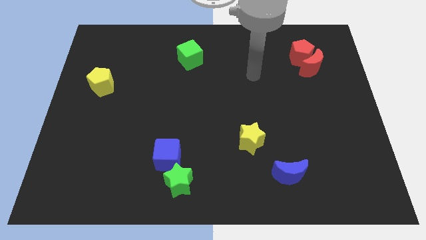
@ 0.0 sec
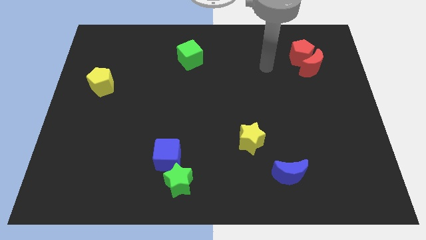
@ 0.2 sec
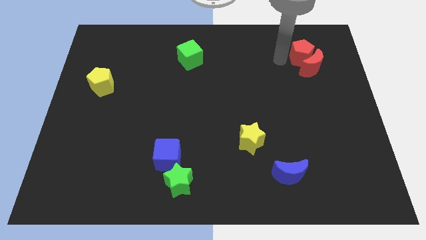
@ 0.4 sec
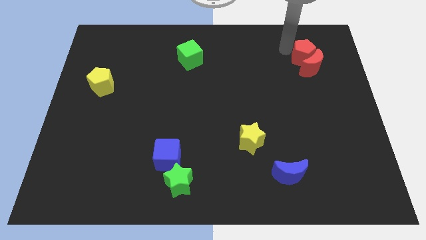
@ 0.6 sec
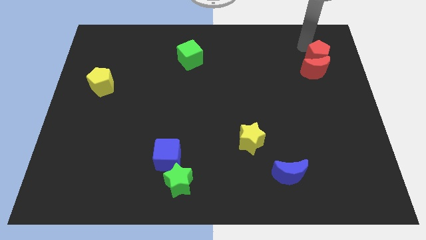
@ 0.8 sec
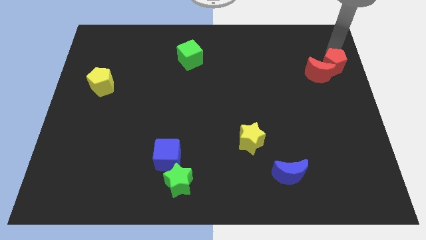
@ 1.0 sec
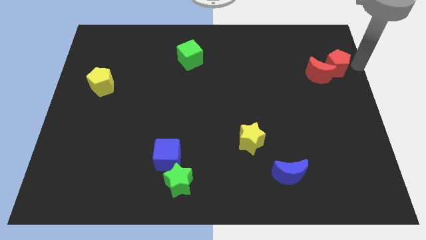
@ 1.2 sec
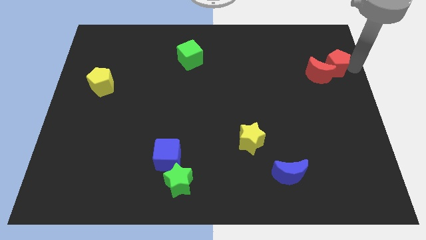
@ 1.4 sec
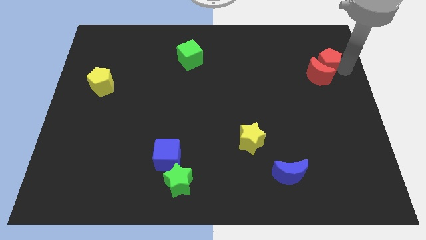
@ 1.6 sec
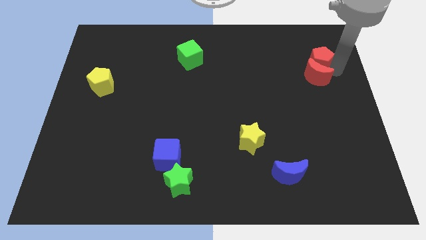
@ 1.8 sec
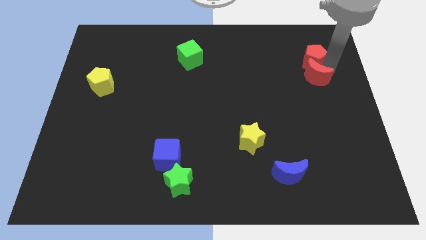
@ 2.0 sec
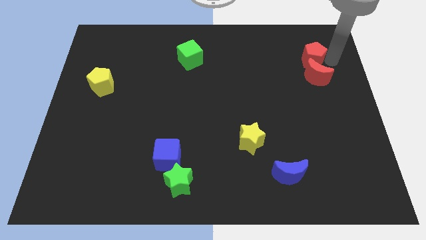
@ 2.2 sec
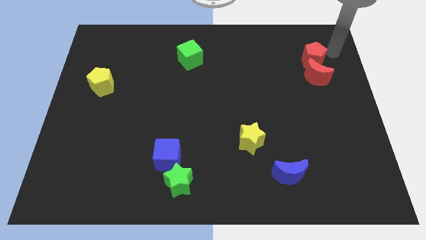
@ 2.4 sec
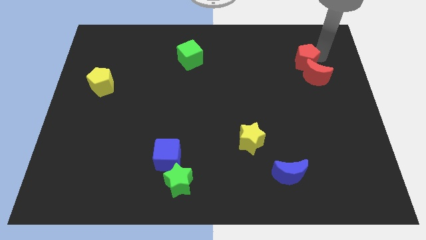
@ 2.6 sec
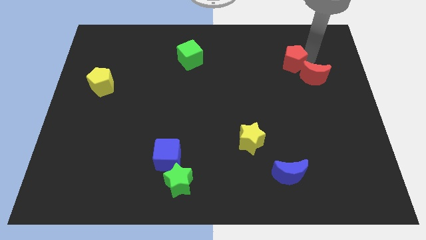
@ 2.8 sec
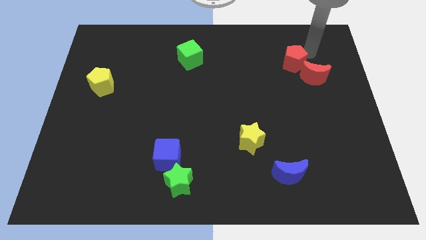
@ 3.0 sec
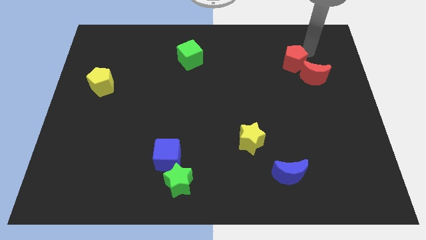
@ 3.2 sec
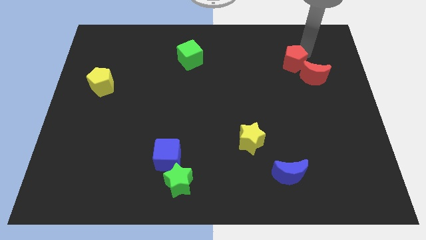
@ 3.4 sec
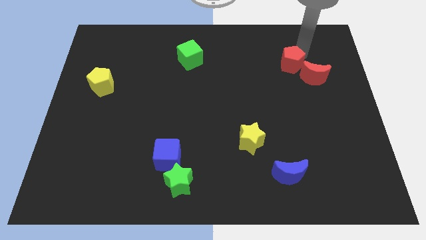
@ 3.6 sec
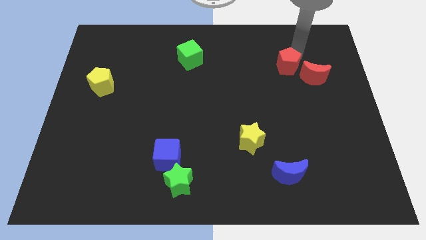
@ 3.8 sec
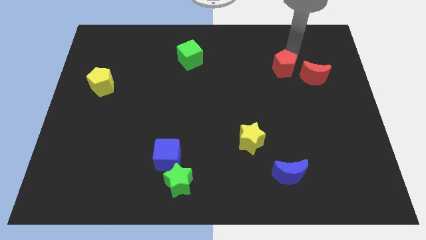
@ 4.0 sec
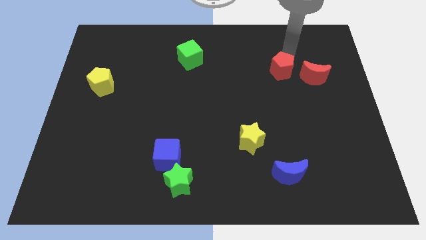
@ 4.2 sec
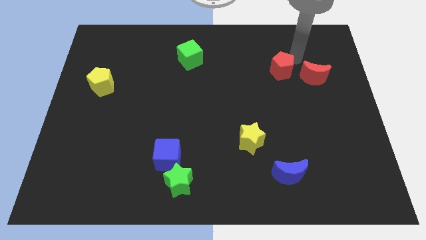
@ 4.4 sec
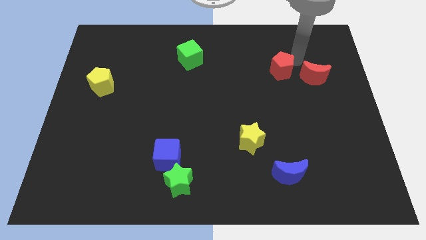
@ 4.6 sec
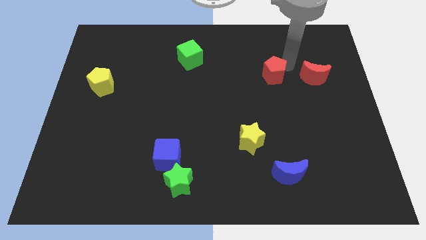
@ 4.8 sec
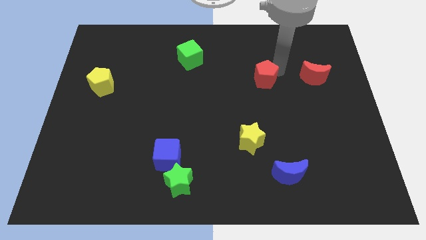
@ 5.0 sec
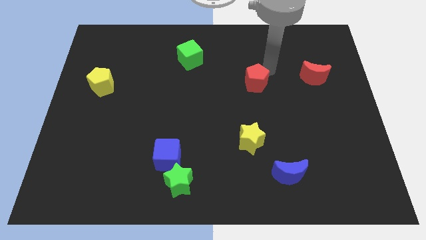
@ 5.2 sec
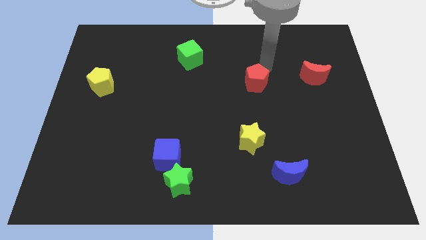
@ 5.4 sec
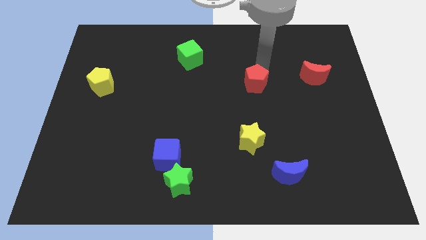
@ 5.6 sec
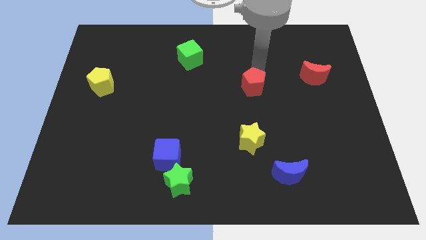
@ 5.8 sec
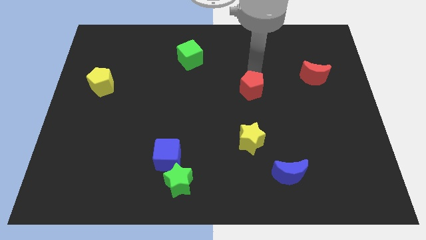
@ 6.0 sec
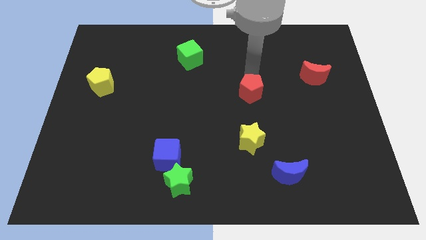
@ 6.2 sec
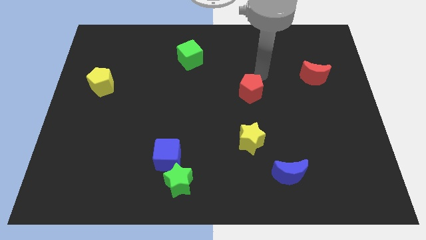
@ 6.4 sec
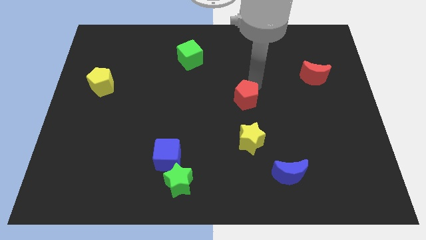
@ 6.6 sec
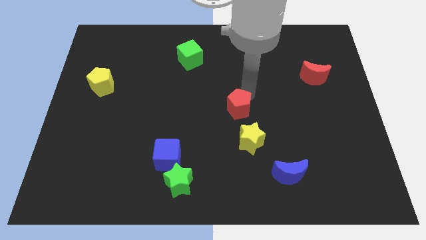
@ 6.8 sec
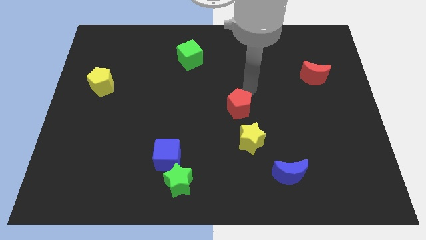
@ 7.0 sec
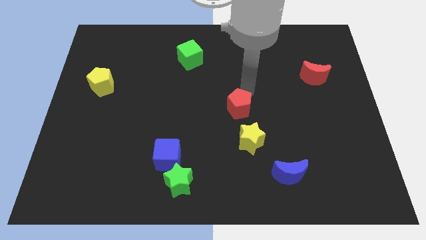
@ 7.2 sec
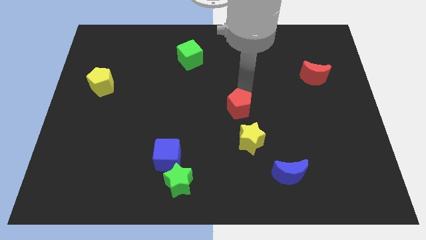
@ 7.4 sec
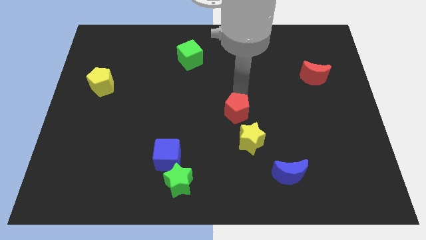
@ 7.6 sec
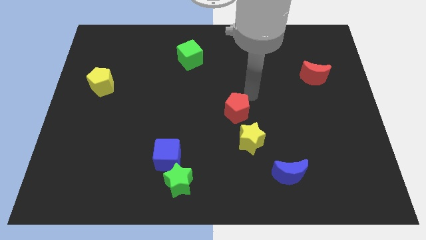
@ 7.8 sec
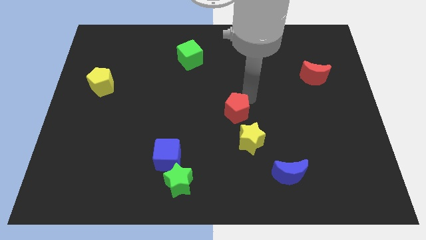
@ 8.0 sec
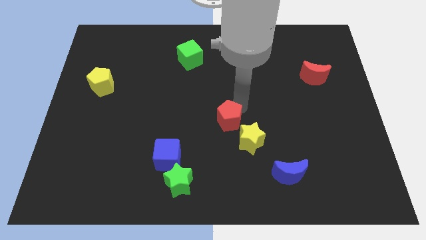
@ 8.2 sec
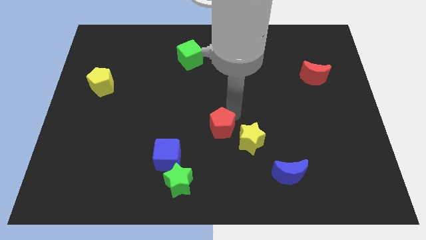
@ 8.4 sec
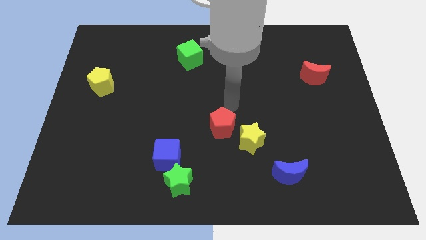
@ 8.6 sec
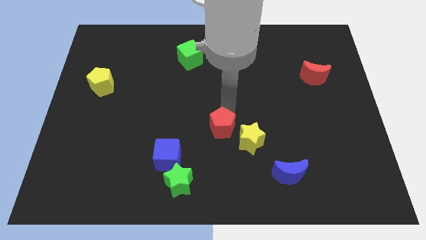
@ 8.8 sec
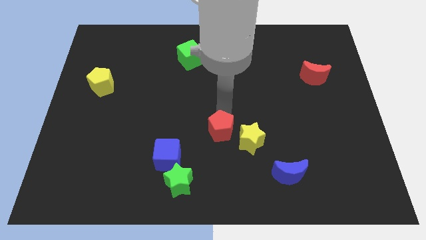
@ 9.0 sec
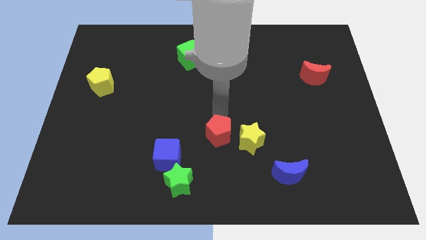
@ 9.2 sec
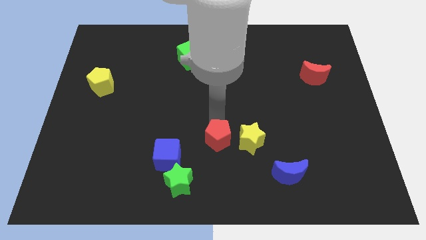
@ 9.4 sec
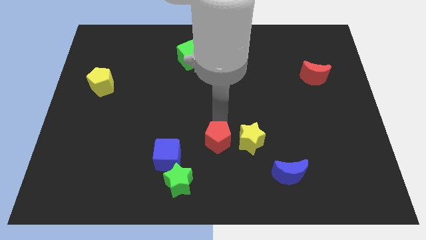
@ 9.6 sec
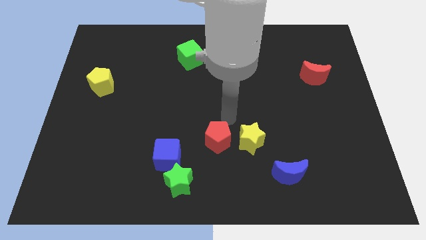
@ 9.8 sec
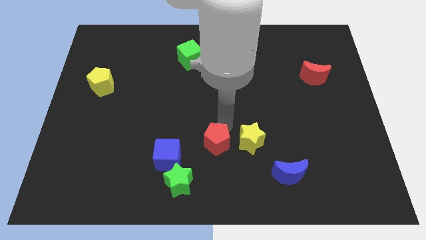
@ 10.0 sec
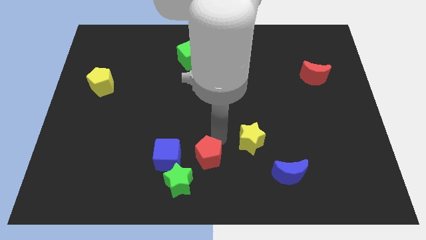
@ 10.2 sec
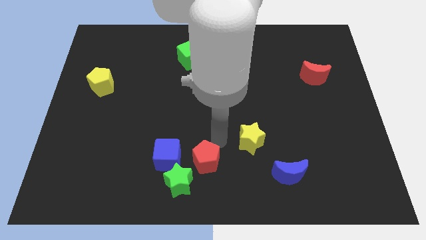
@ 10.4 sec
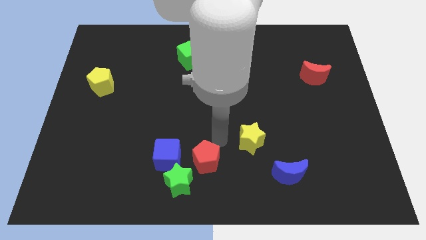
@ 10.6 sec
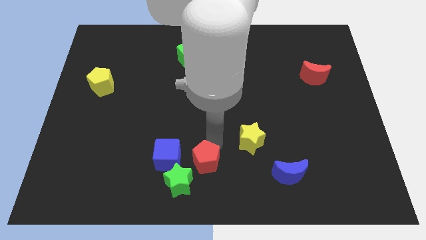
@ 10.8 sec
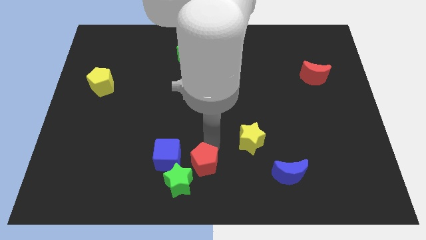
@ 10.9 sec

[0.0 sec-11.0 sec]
move the red pentagon to the bottom right of the blue cube

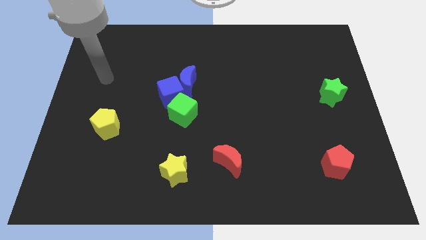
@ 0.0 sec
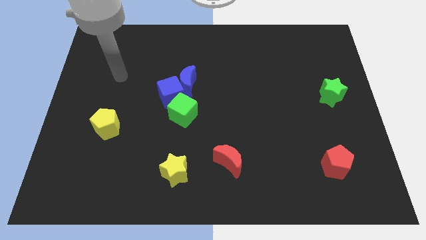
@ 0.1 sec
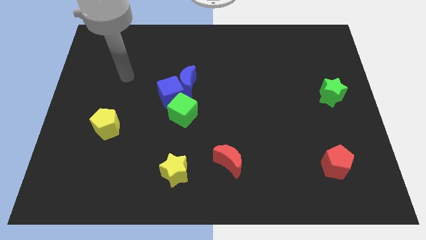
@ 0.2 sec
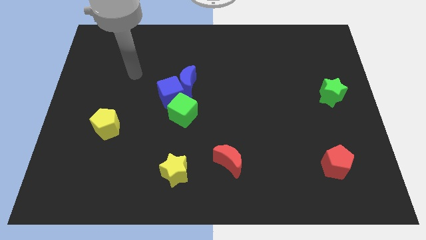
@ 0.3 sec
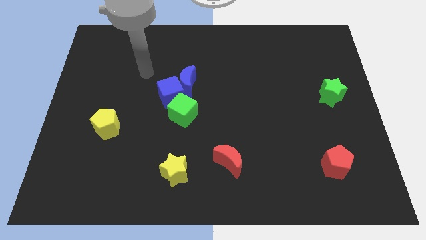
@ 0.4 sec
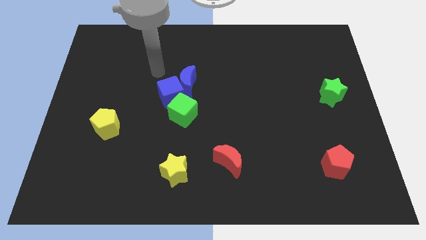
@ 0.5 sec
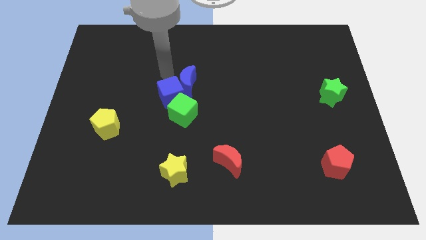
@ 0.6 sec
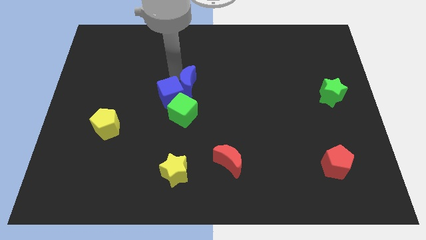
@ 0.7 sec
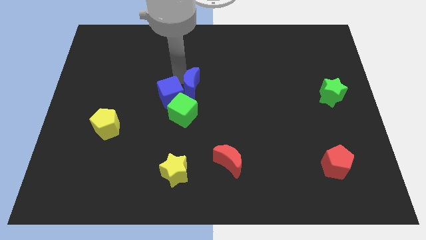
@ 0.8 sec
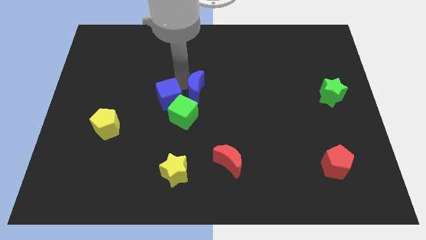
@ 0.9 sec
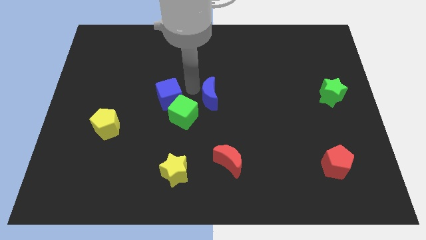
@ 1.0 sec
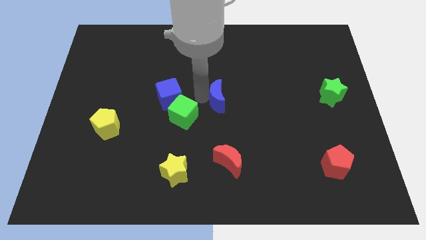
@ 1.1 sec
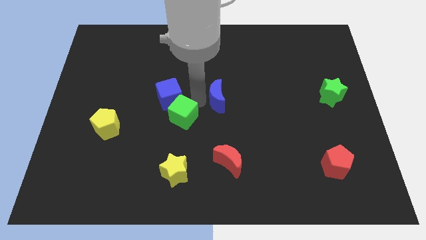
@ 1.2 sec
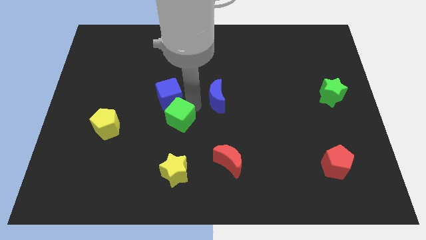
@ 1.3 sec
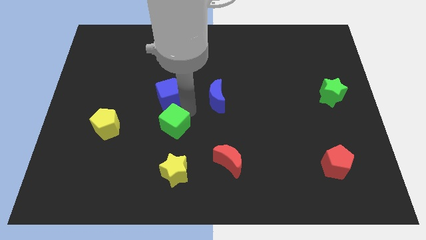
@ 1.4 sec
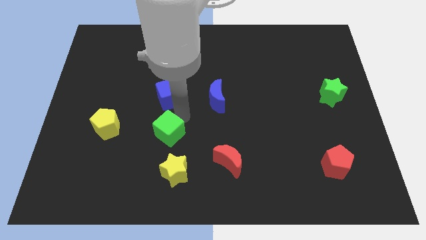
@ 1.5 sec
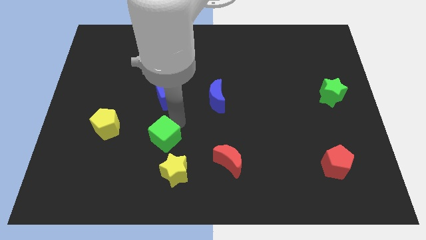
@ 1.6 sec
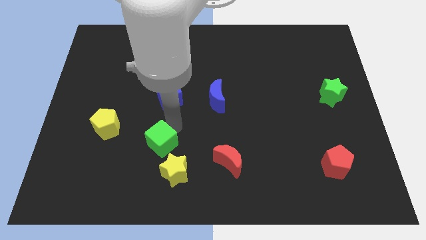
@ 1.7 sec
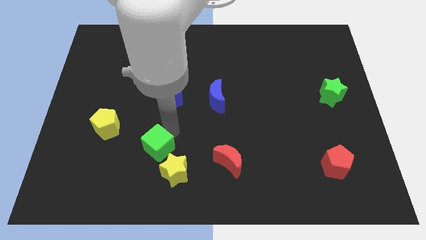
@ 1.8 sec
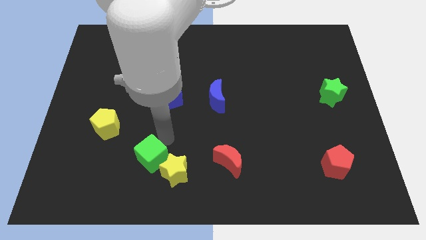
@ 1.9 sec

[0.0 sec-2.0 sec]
slide the green cube to the left of the yellow star
